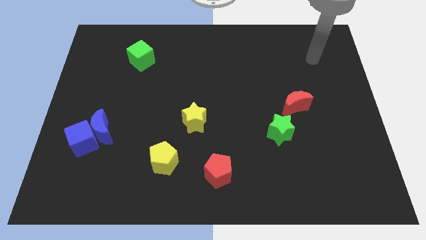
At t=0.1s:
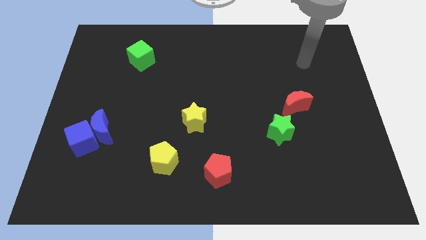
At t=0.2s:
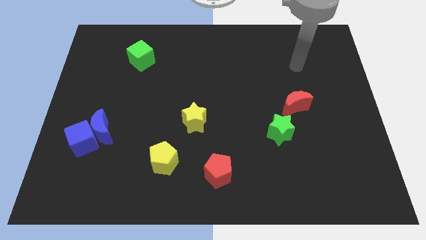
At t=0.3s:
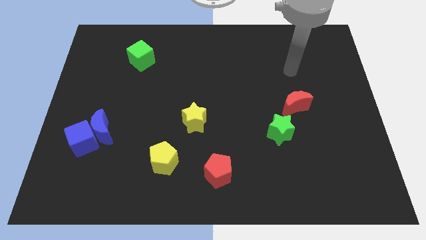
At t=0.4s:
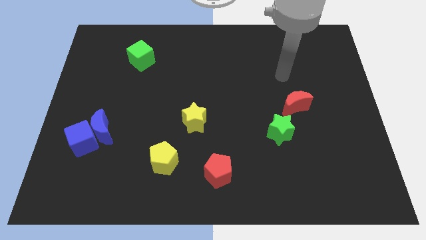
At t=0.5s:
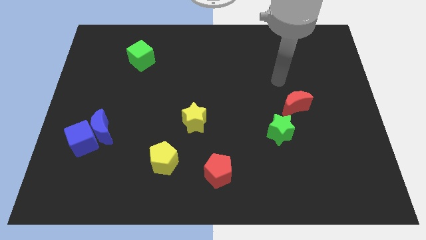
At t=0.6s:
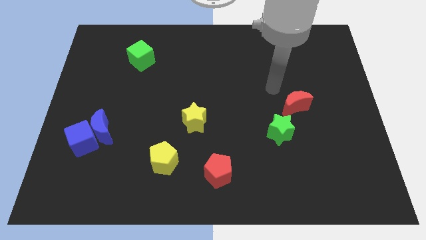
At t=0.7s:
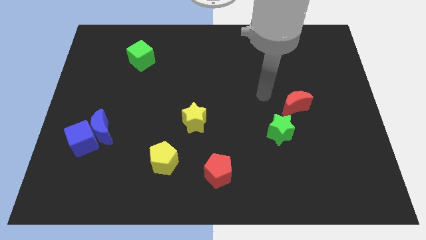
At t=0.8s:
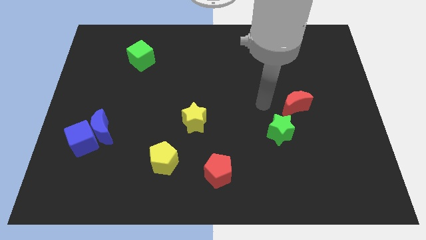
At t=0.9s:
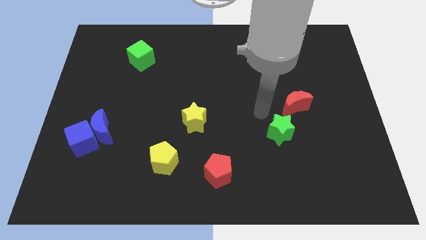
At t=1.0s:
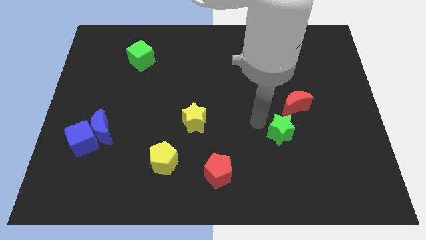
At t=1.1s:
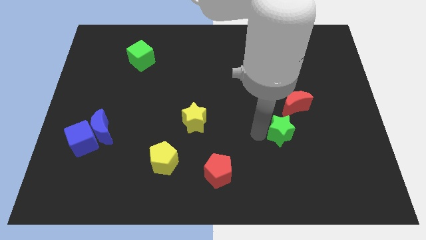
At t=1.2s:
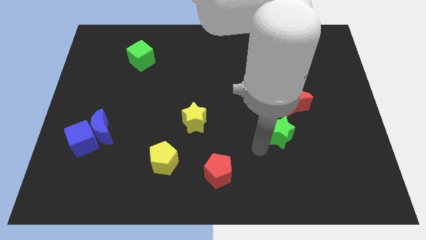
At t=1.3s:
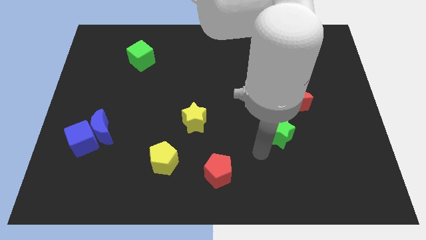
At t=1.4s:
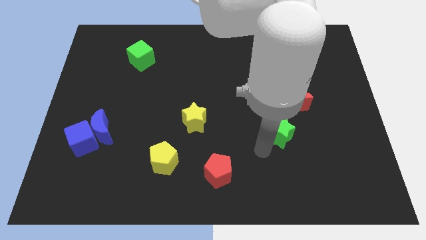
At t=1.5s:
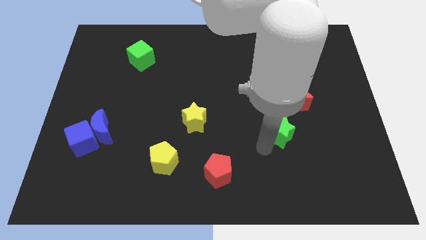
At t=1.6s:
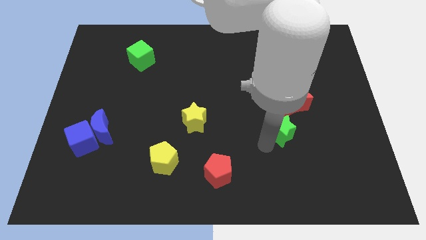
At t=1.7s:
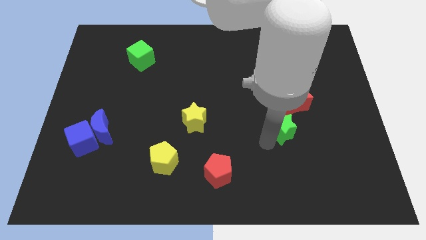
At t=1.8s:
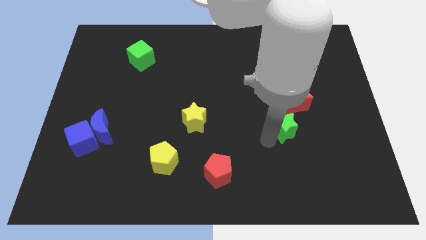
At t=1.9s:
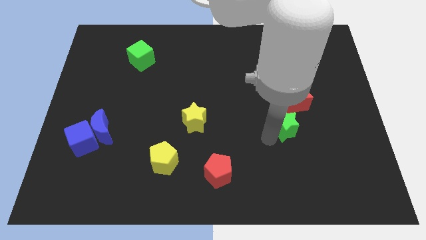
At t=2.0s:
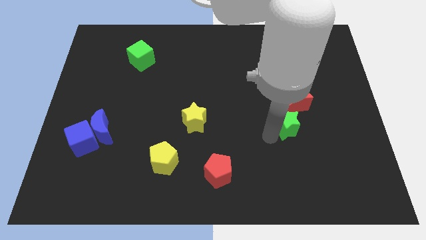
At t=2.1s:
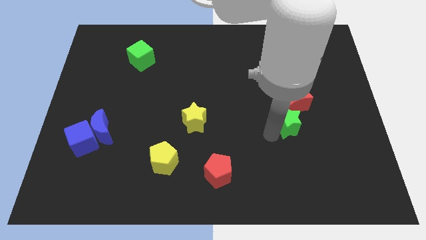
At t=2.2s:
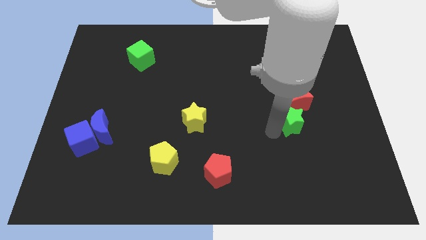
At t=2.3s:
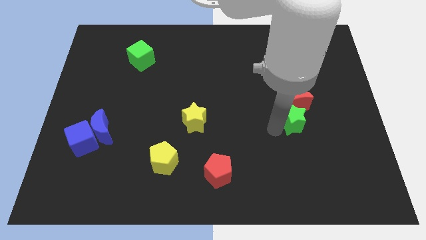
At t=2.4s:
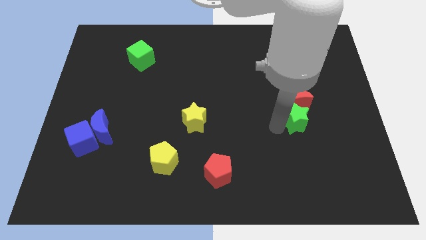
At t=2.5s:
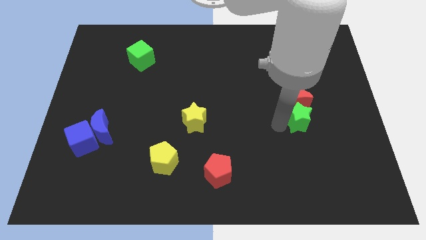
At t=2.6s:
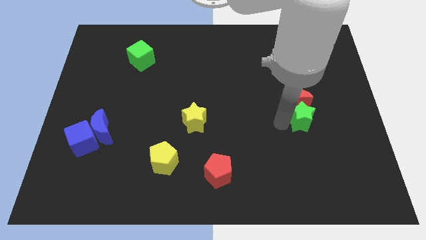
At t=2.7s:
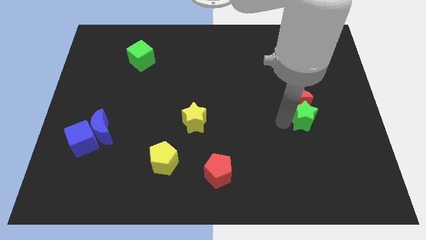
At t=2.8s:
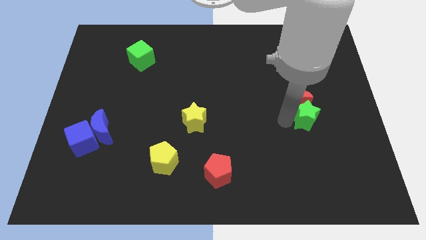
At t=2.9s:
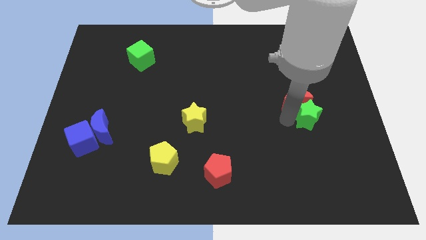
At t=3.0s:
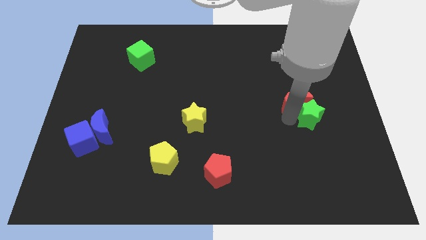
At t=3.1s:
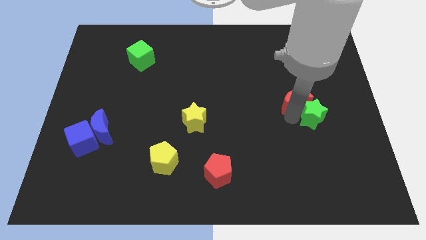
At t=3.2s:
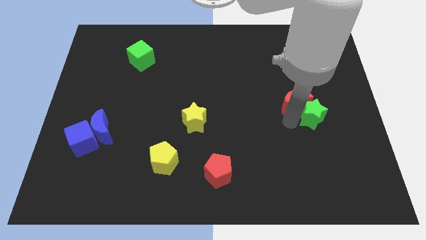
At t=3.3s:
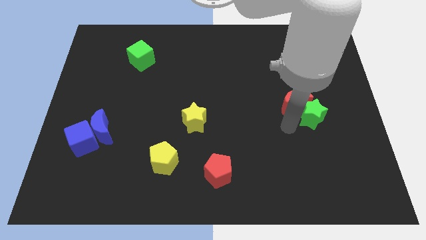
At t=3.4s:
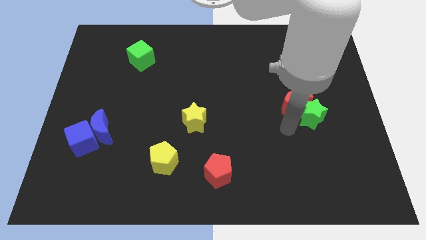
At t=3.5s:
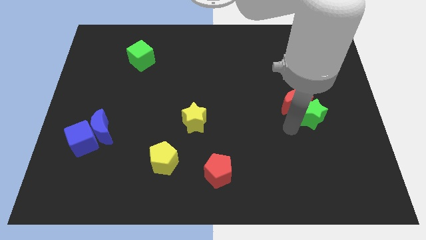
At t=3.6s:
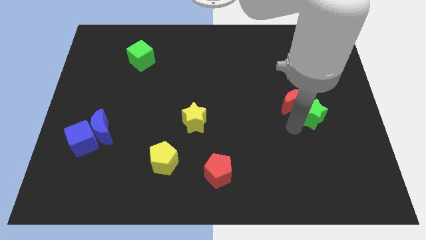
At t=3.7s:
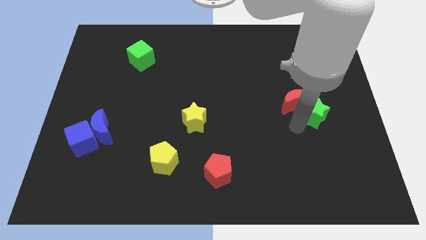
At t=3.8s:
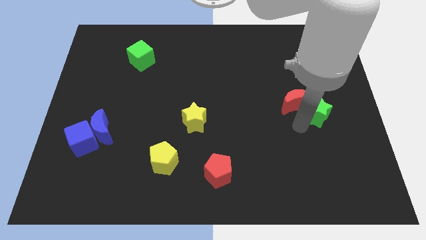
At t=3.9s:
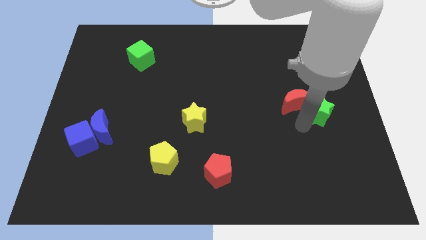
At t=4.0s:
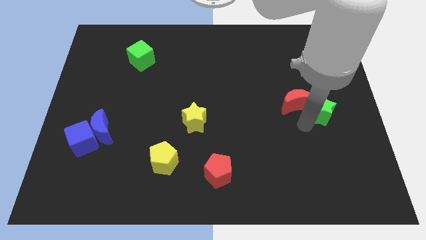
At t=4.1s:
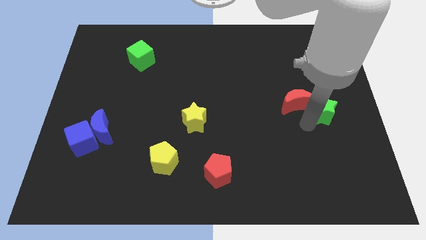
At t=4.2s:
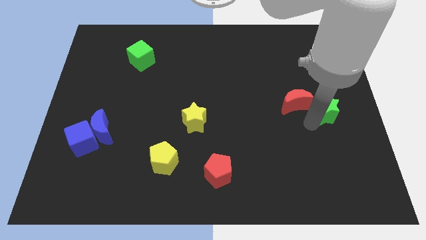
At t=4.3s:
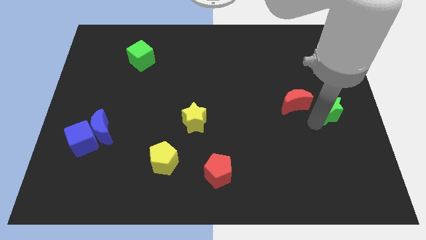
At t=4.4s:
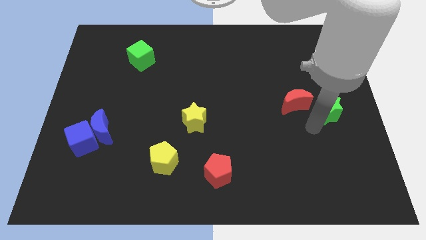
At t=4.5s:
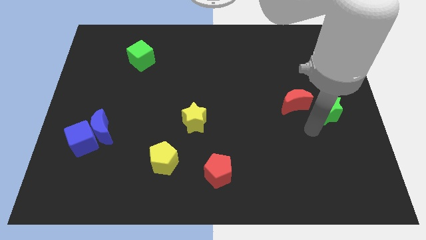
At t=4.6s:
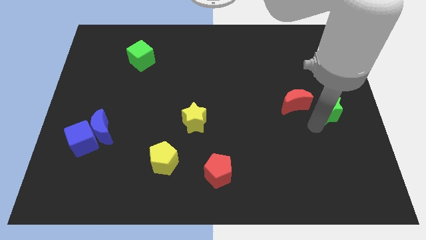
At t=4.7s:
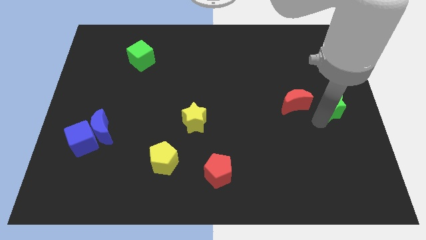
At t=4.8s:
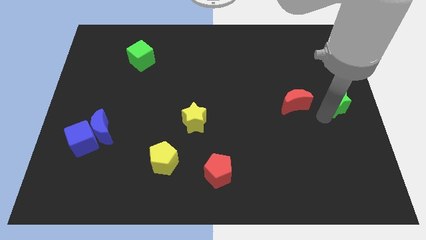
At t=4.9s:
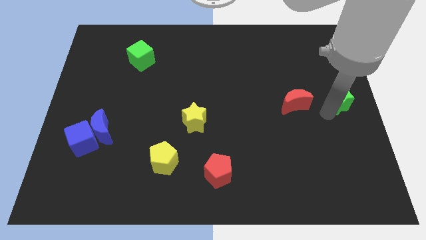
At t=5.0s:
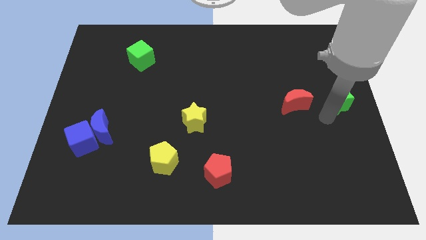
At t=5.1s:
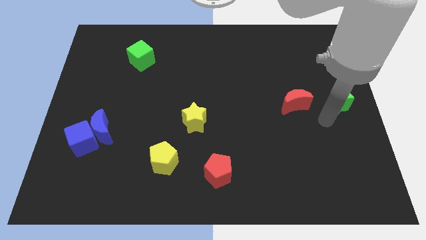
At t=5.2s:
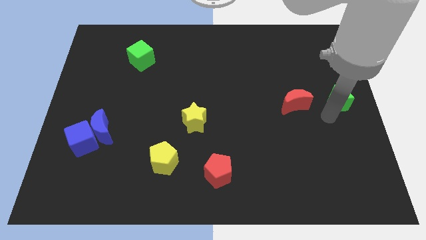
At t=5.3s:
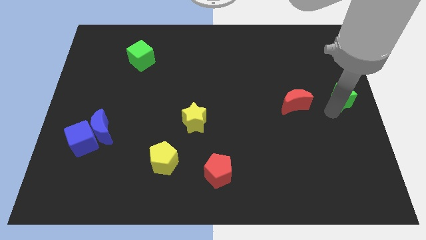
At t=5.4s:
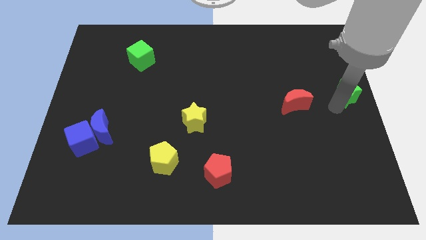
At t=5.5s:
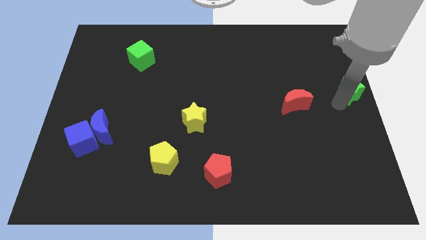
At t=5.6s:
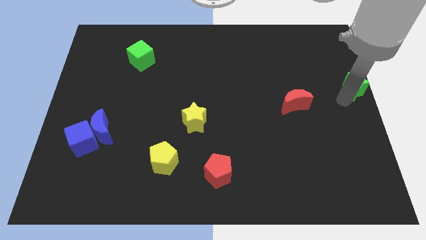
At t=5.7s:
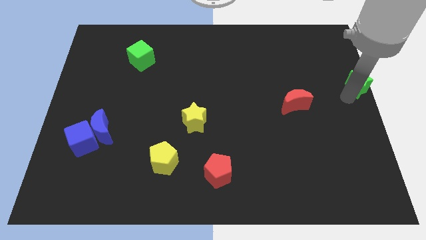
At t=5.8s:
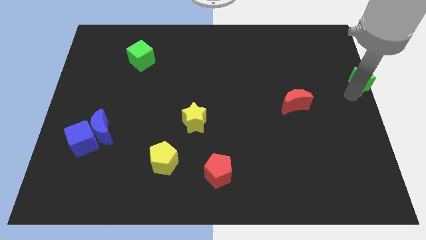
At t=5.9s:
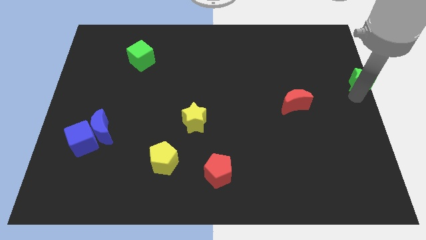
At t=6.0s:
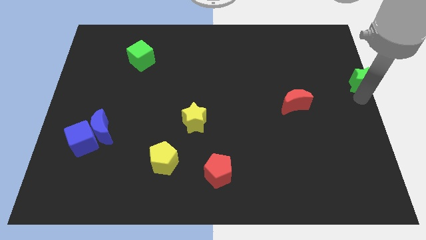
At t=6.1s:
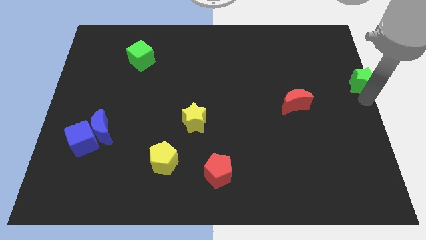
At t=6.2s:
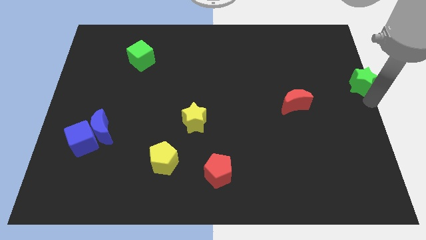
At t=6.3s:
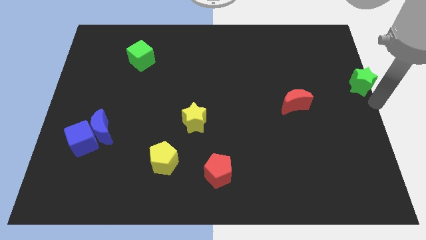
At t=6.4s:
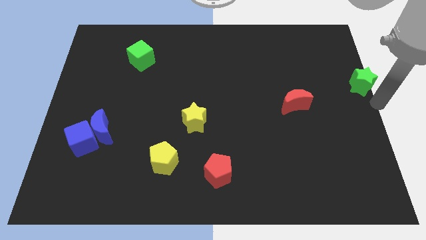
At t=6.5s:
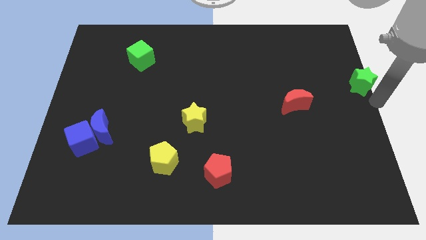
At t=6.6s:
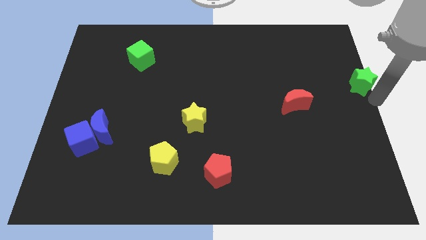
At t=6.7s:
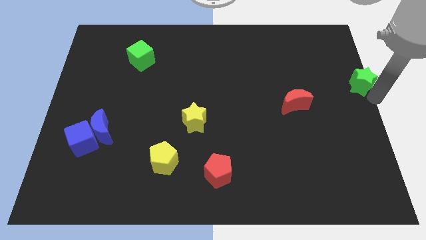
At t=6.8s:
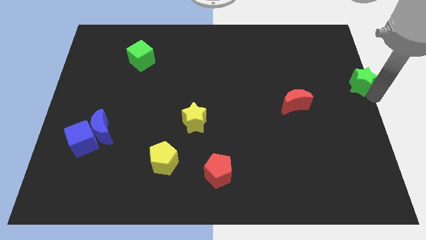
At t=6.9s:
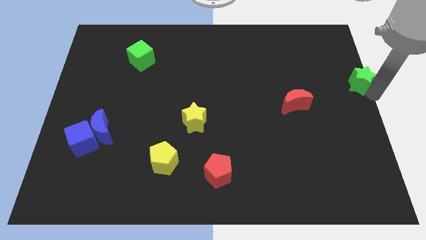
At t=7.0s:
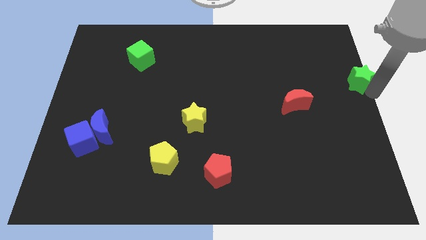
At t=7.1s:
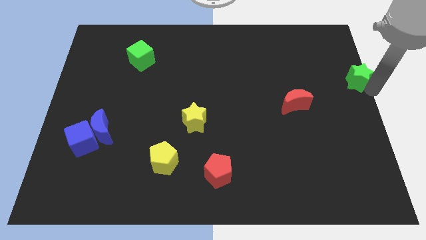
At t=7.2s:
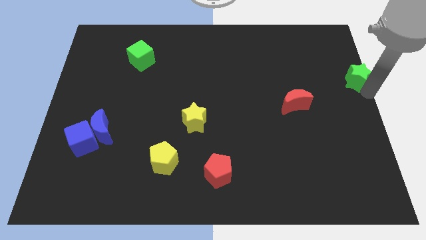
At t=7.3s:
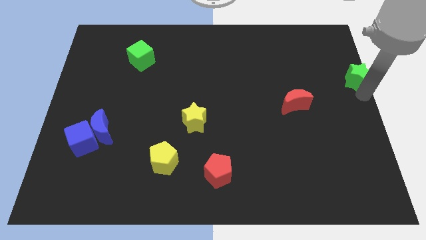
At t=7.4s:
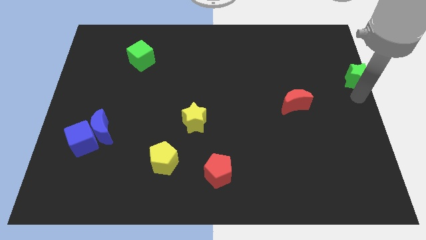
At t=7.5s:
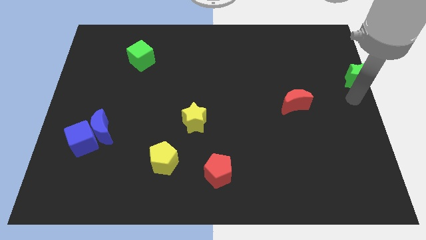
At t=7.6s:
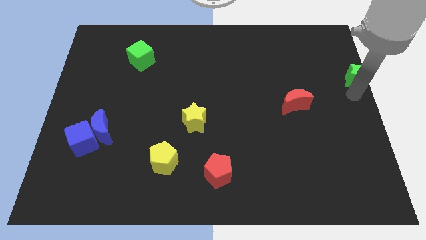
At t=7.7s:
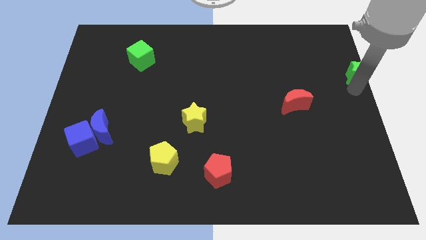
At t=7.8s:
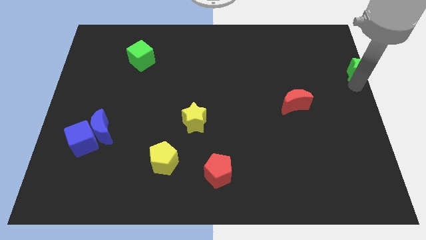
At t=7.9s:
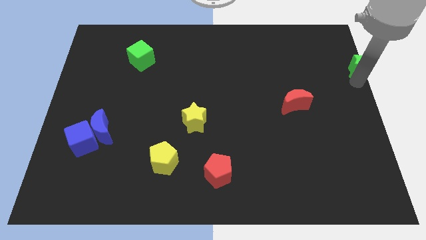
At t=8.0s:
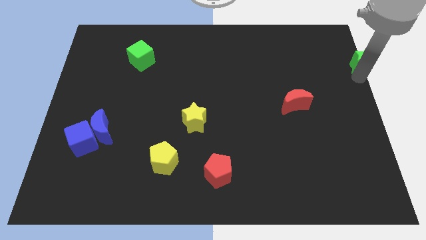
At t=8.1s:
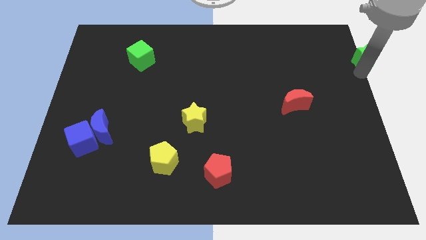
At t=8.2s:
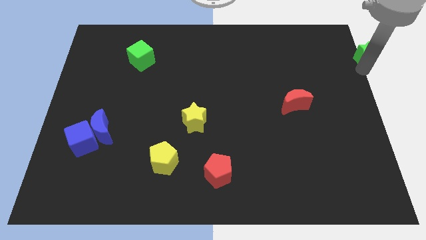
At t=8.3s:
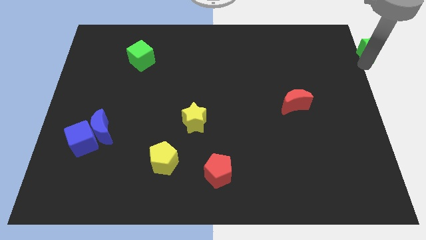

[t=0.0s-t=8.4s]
slide the green star to the top right of the board
